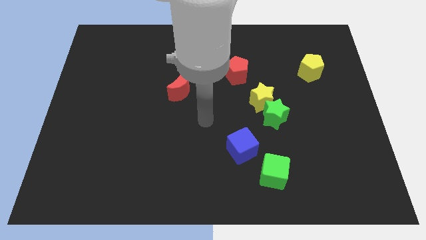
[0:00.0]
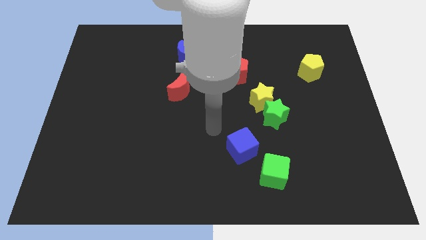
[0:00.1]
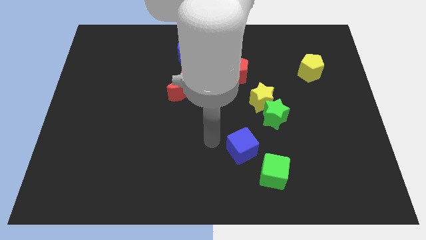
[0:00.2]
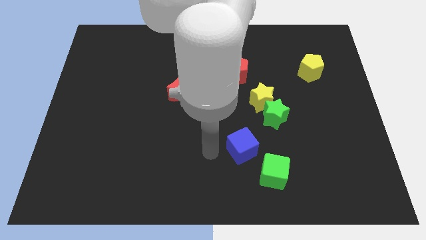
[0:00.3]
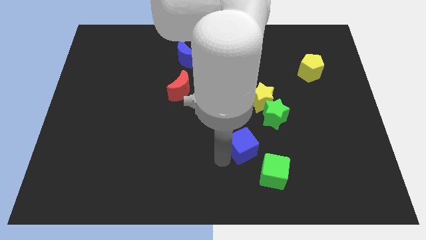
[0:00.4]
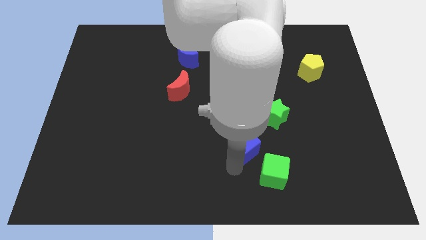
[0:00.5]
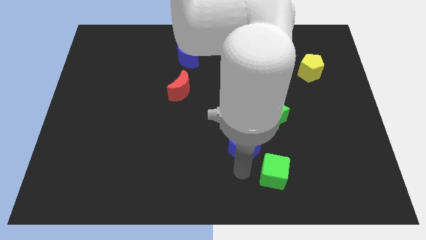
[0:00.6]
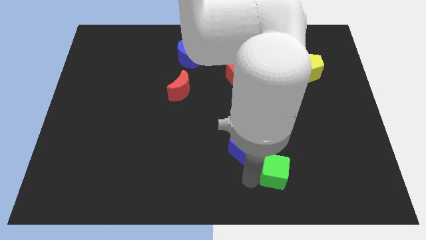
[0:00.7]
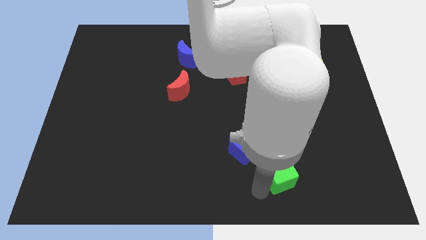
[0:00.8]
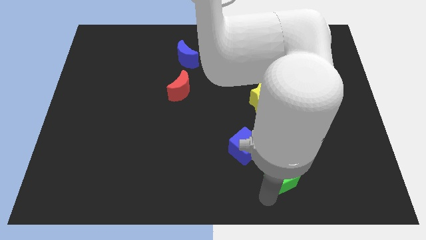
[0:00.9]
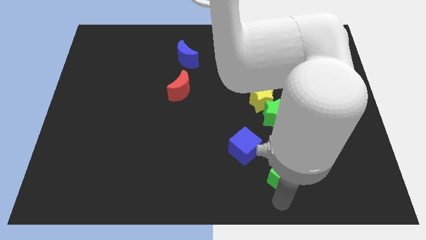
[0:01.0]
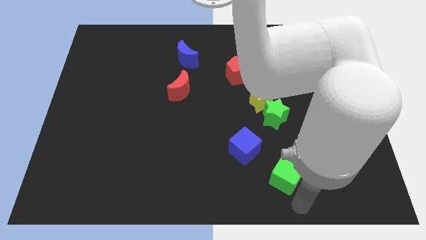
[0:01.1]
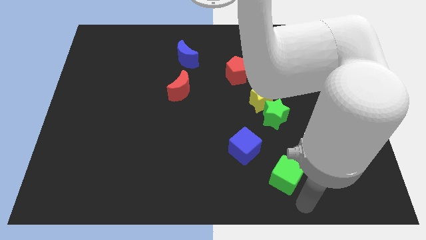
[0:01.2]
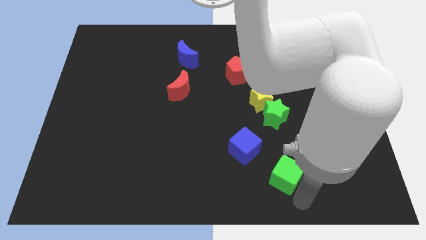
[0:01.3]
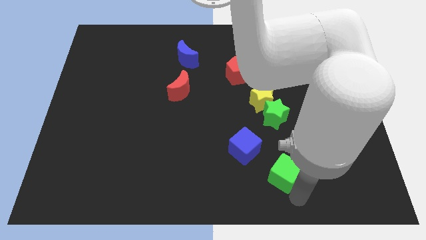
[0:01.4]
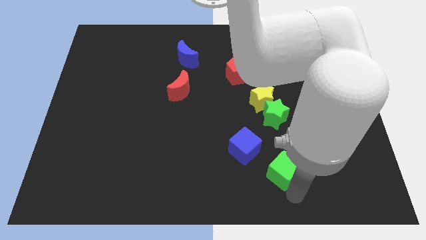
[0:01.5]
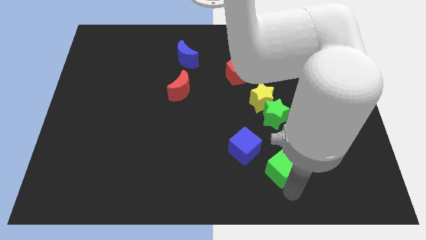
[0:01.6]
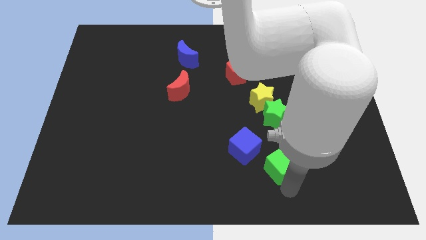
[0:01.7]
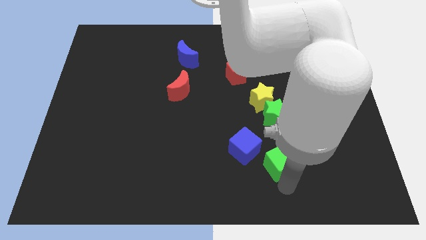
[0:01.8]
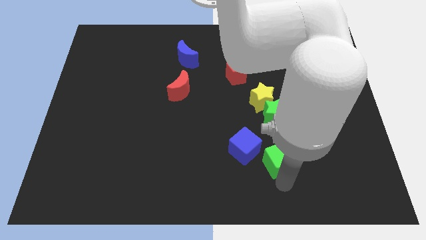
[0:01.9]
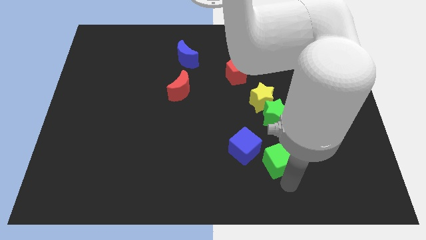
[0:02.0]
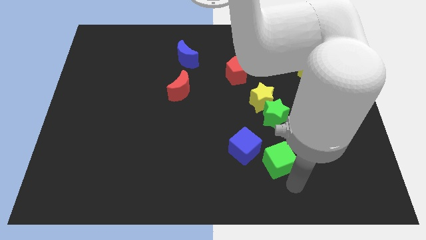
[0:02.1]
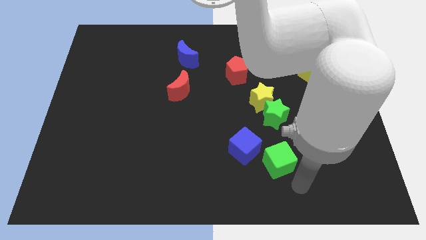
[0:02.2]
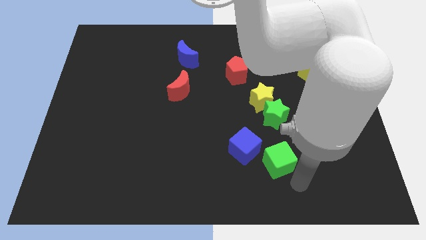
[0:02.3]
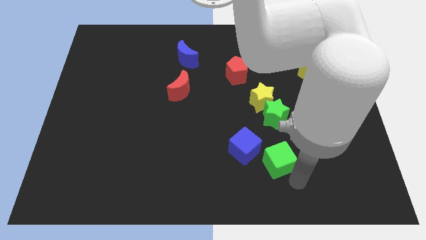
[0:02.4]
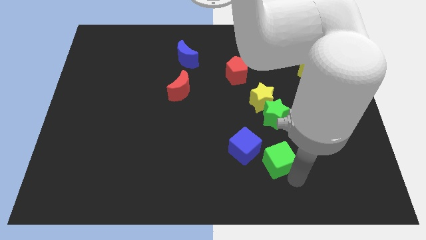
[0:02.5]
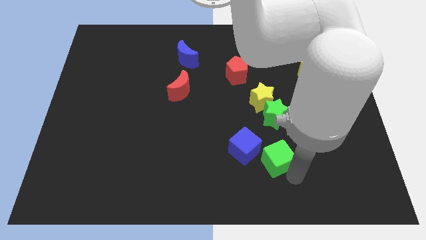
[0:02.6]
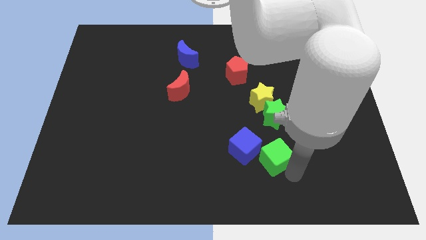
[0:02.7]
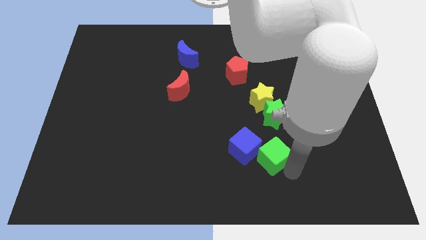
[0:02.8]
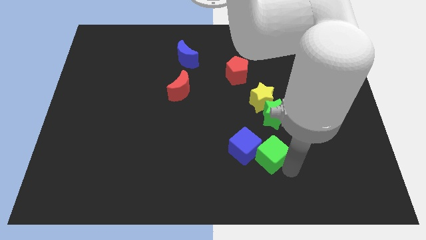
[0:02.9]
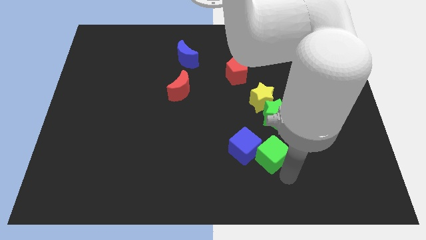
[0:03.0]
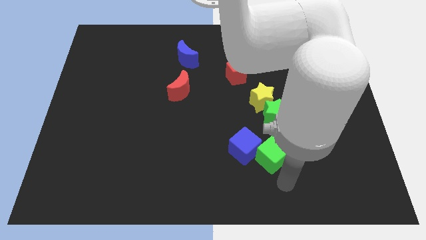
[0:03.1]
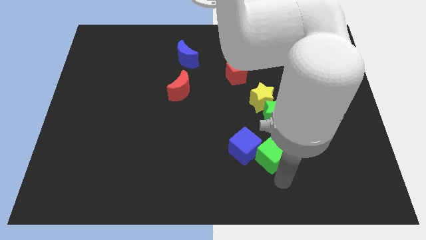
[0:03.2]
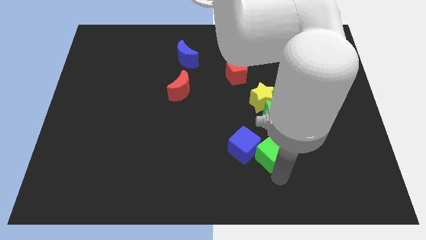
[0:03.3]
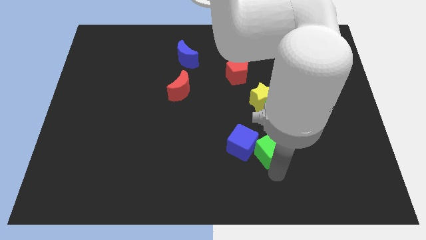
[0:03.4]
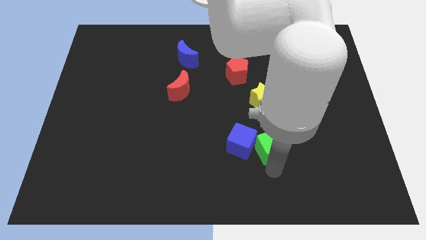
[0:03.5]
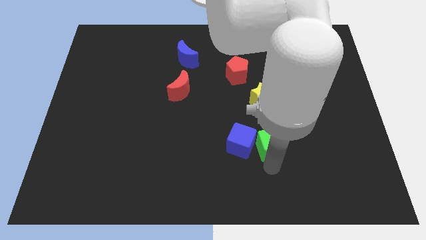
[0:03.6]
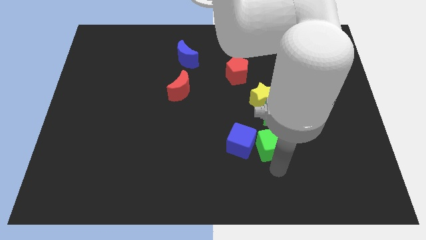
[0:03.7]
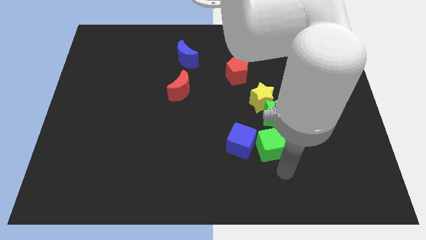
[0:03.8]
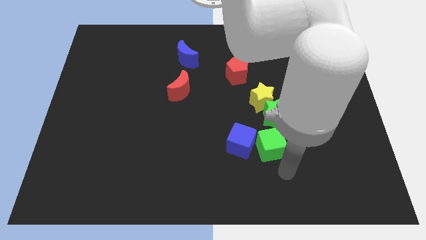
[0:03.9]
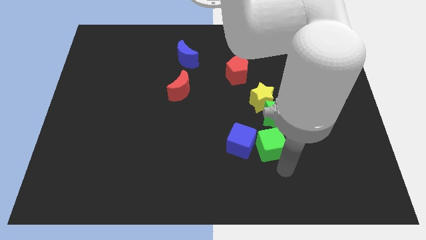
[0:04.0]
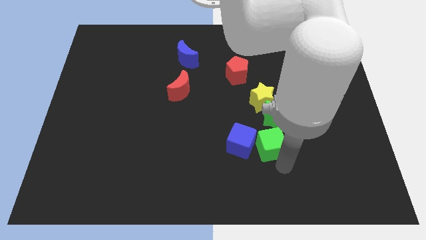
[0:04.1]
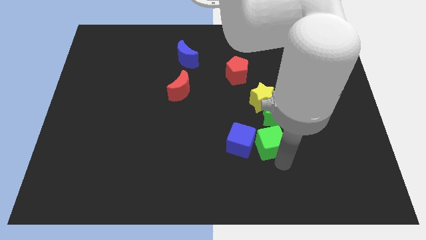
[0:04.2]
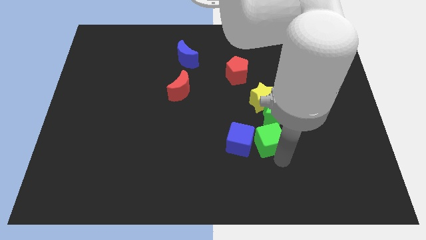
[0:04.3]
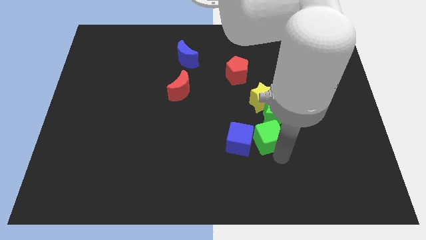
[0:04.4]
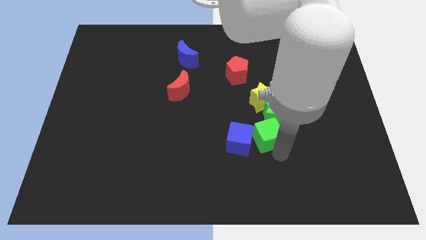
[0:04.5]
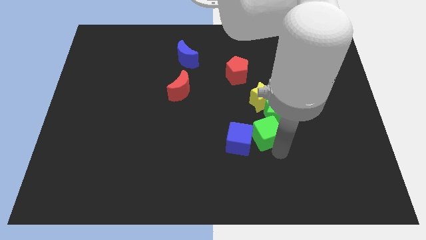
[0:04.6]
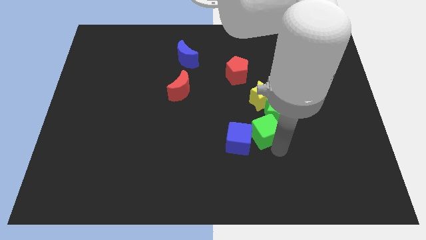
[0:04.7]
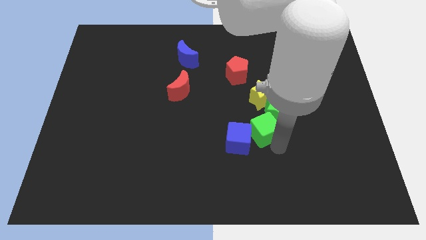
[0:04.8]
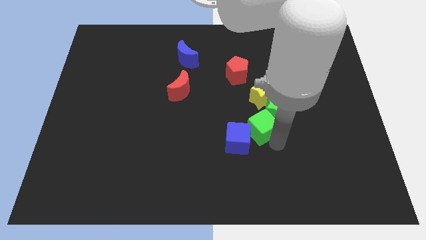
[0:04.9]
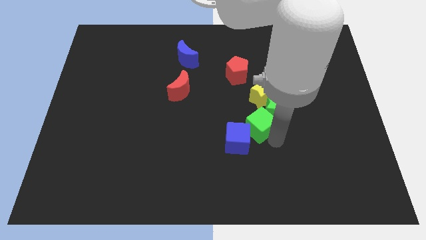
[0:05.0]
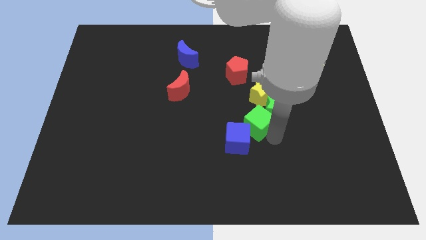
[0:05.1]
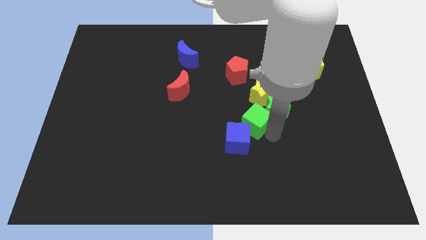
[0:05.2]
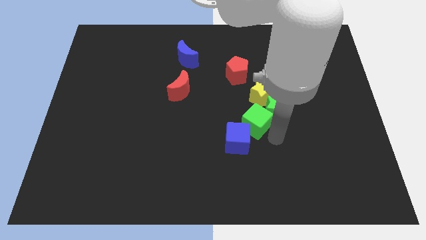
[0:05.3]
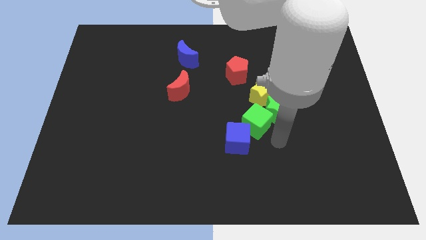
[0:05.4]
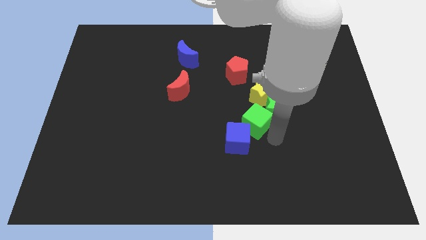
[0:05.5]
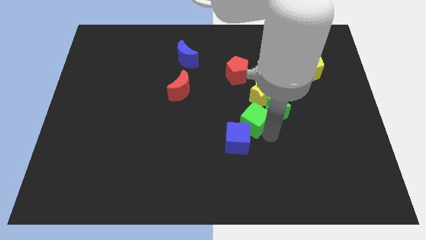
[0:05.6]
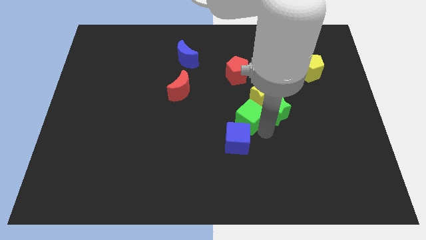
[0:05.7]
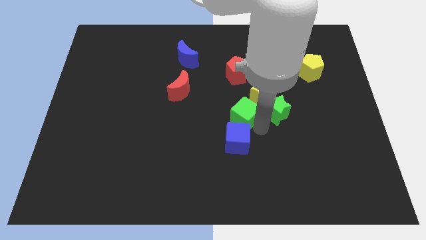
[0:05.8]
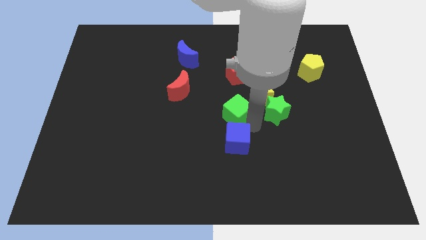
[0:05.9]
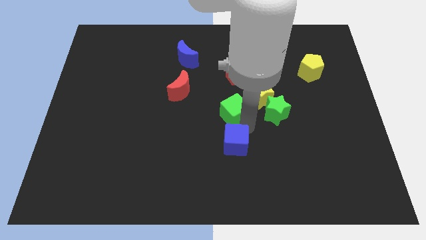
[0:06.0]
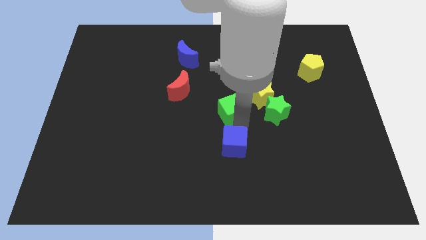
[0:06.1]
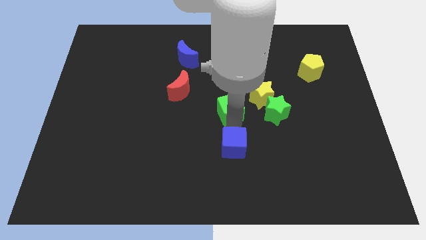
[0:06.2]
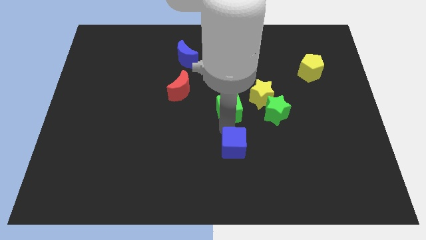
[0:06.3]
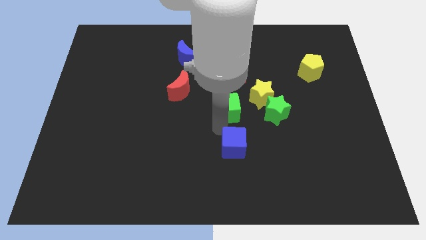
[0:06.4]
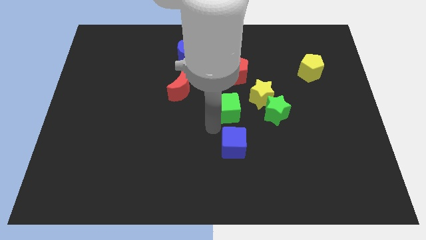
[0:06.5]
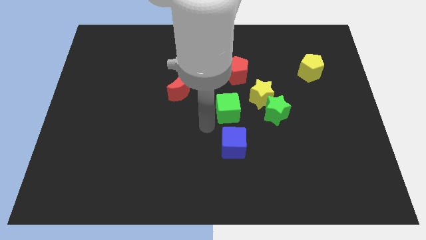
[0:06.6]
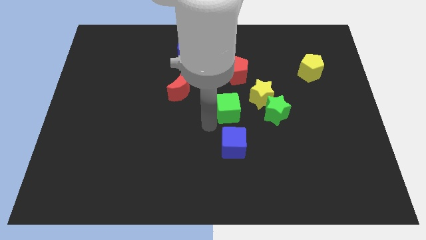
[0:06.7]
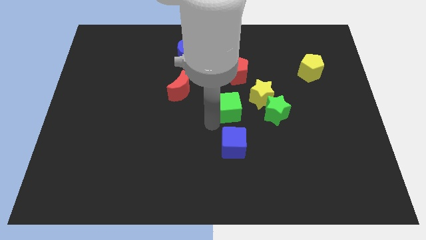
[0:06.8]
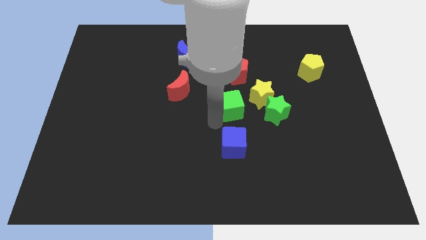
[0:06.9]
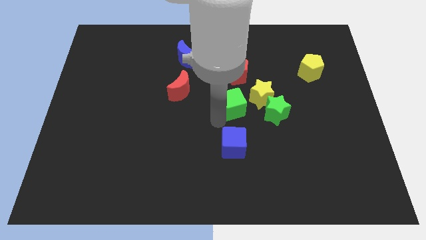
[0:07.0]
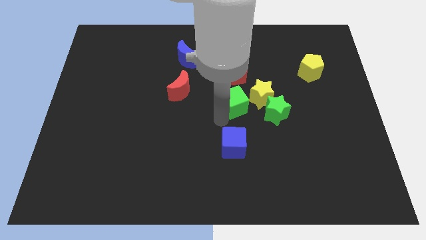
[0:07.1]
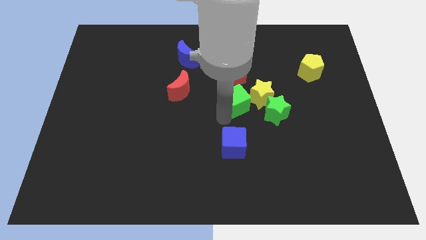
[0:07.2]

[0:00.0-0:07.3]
put the green cube to the top left side of the green star
